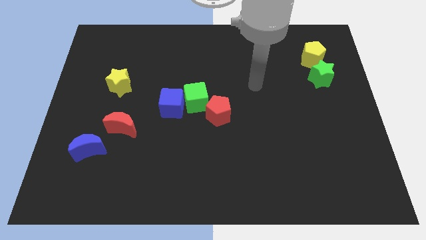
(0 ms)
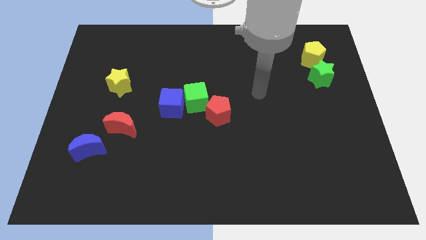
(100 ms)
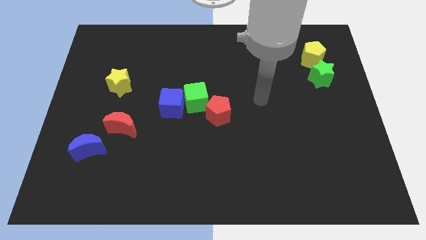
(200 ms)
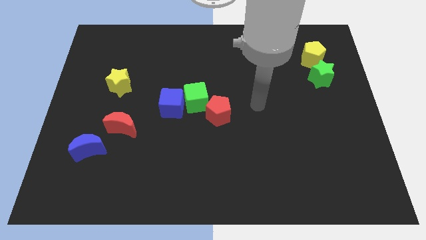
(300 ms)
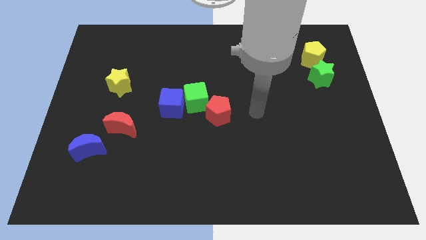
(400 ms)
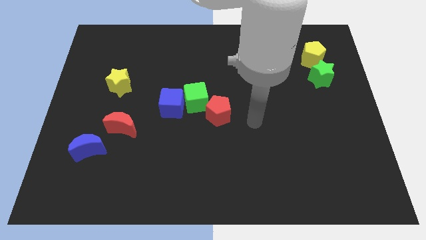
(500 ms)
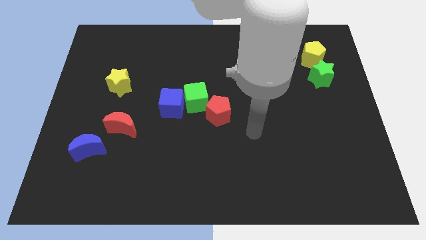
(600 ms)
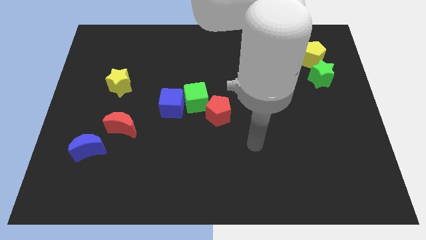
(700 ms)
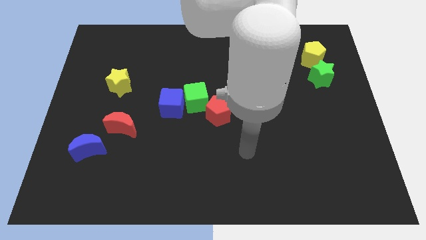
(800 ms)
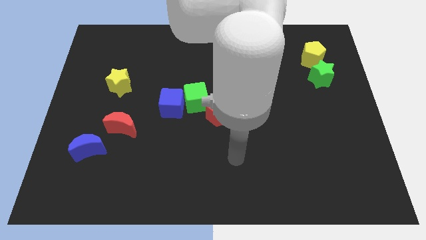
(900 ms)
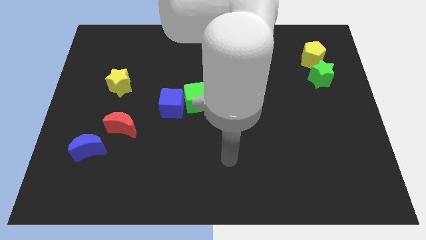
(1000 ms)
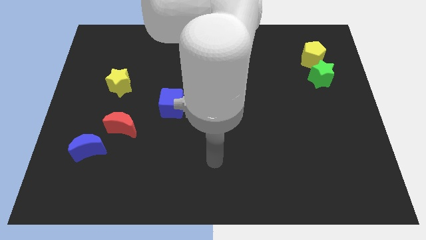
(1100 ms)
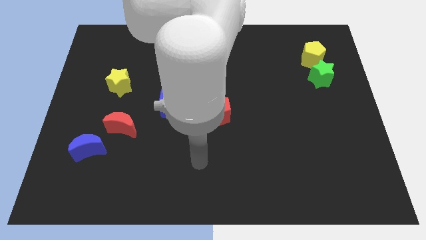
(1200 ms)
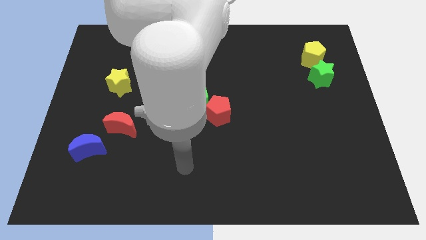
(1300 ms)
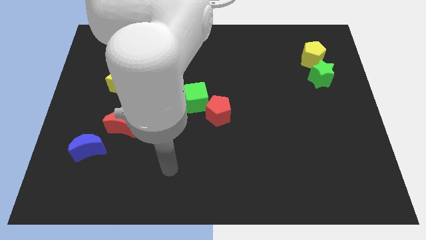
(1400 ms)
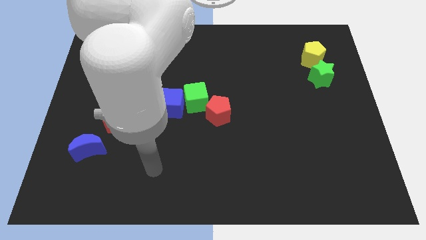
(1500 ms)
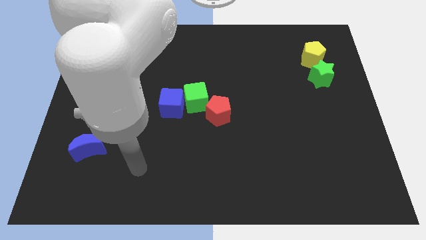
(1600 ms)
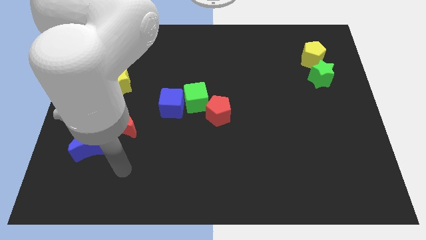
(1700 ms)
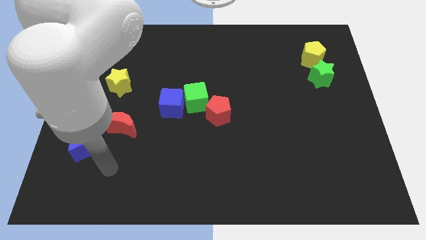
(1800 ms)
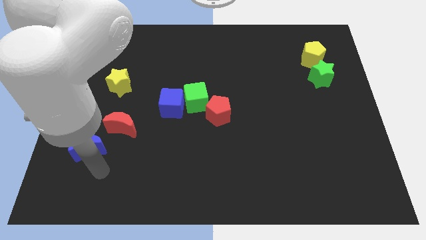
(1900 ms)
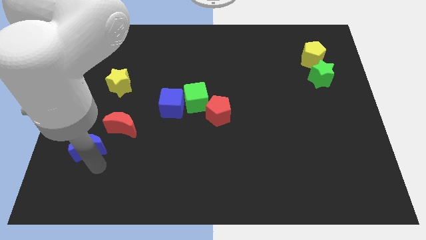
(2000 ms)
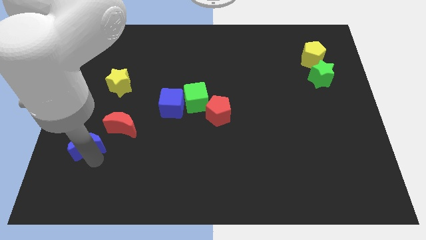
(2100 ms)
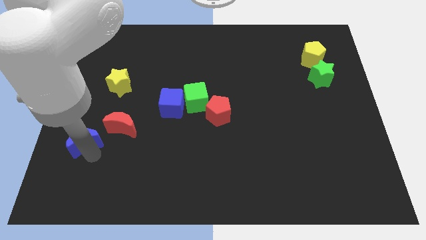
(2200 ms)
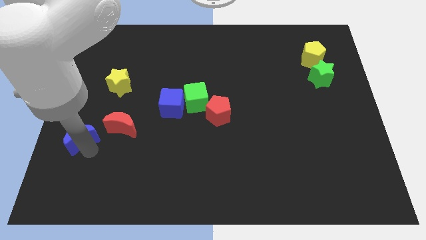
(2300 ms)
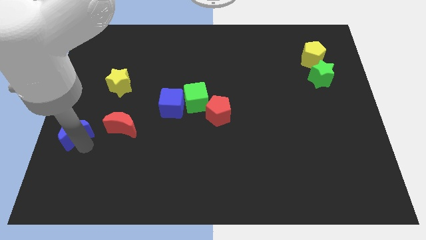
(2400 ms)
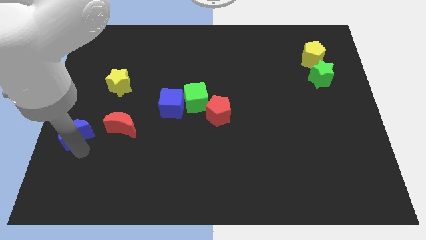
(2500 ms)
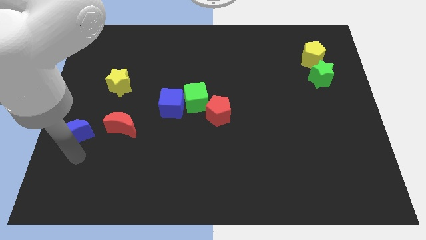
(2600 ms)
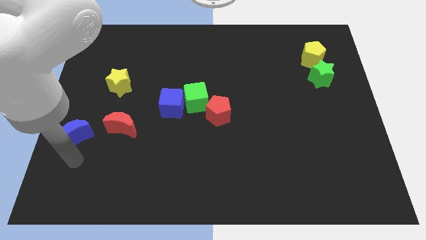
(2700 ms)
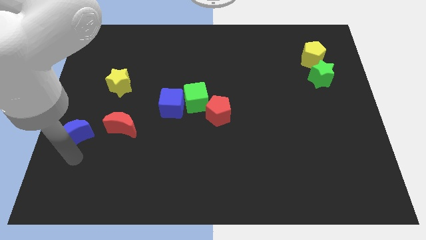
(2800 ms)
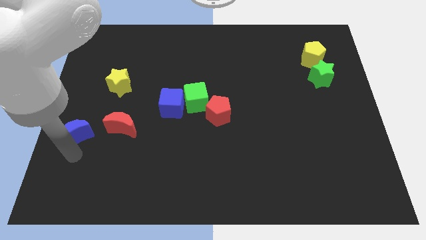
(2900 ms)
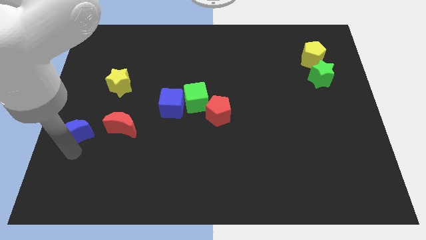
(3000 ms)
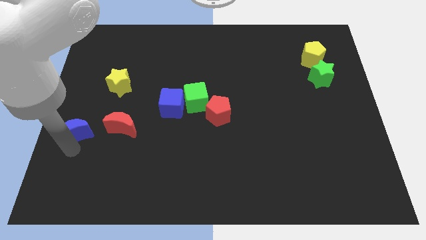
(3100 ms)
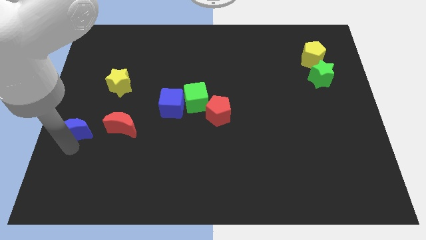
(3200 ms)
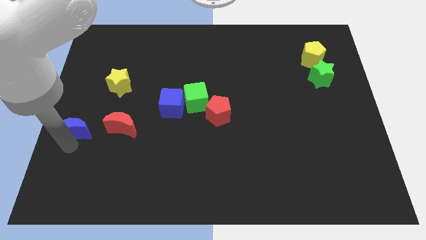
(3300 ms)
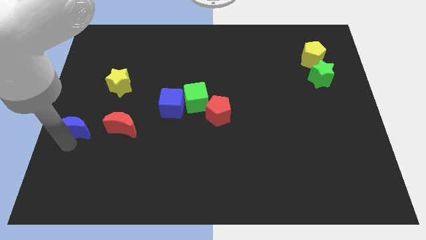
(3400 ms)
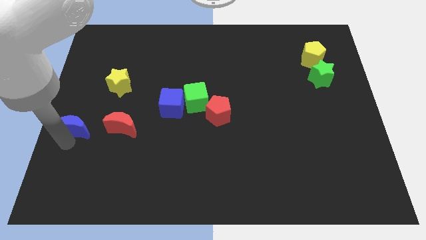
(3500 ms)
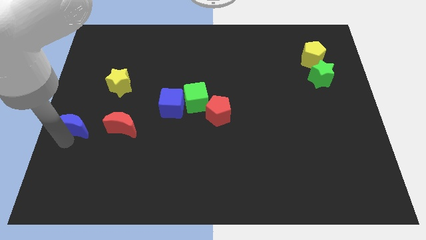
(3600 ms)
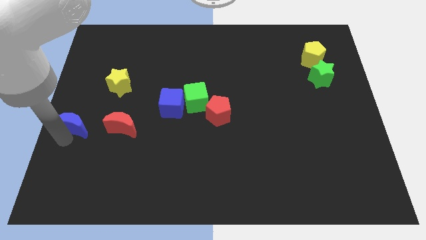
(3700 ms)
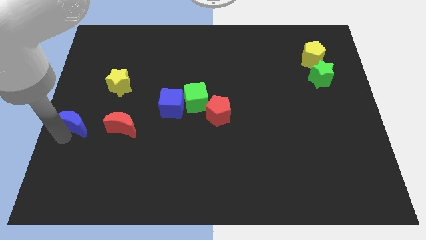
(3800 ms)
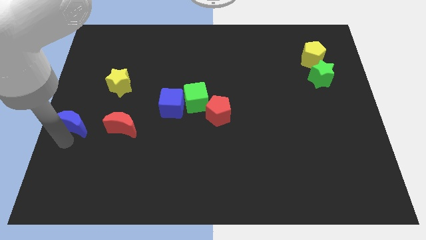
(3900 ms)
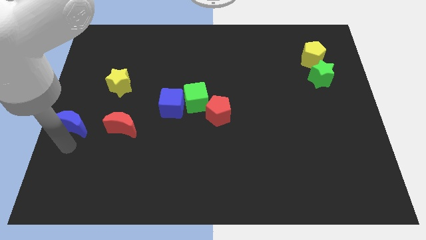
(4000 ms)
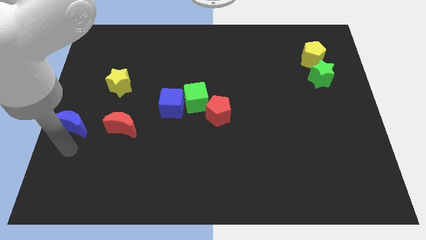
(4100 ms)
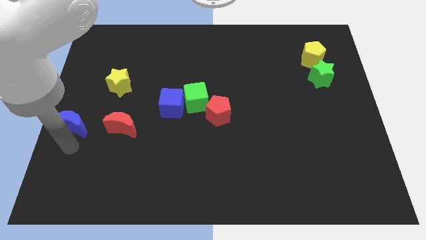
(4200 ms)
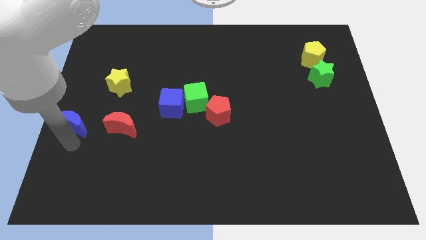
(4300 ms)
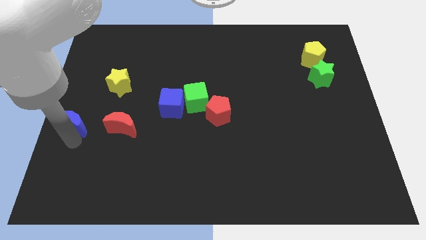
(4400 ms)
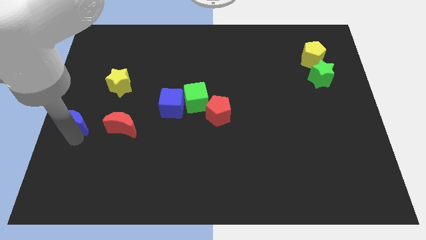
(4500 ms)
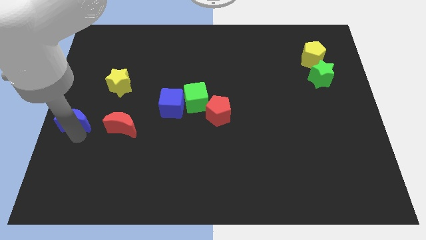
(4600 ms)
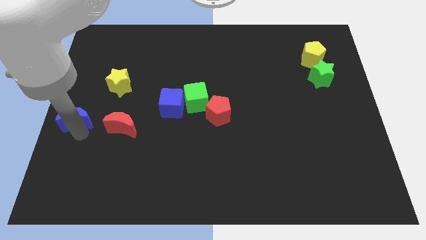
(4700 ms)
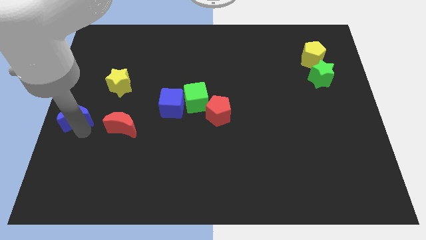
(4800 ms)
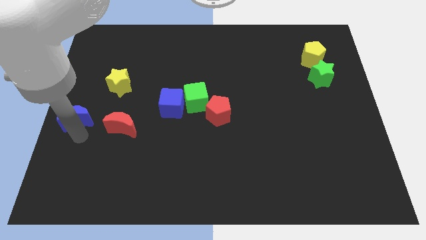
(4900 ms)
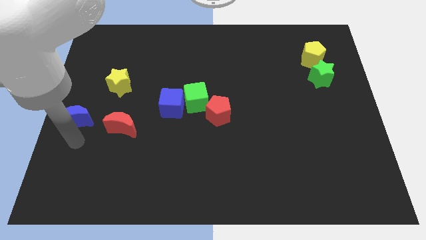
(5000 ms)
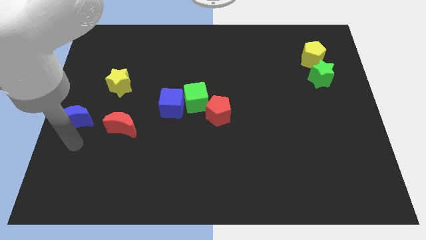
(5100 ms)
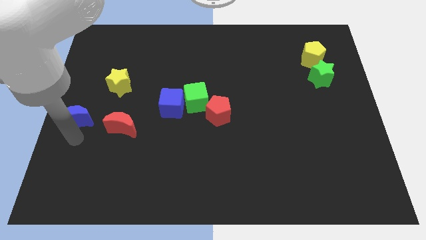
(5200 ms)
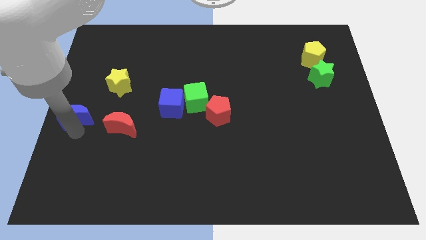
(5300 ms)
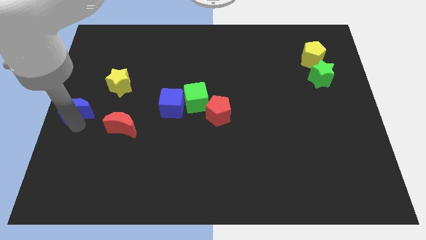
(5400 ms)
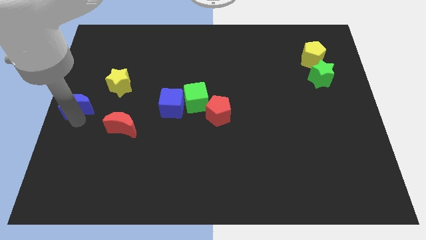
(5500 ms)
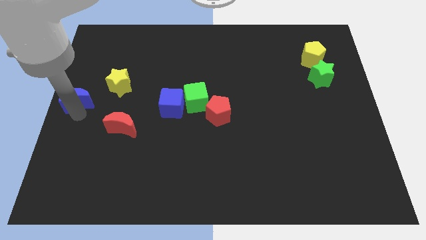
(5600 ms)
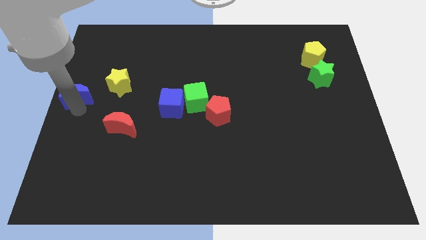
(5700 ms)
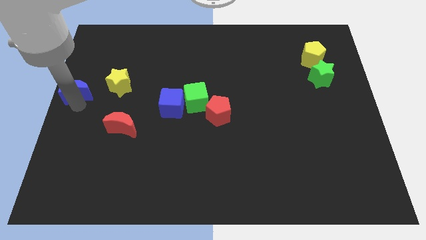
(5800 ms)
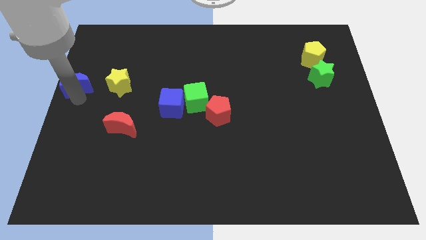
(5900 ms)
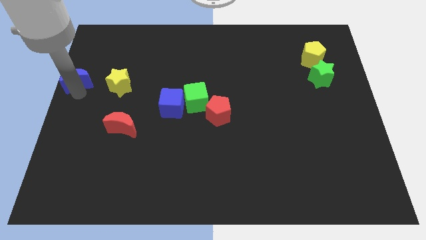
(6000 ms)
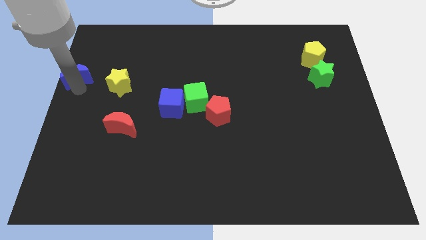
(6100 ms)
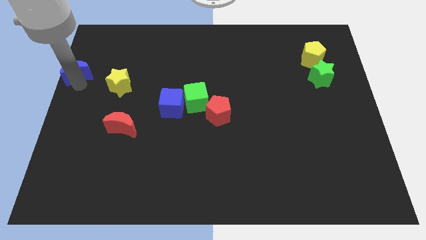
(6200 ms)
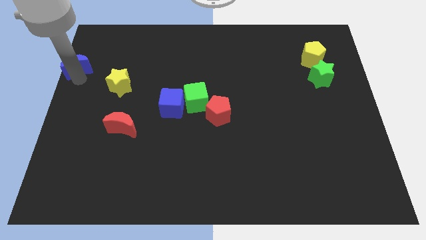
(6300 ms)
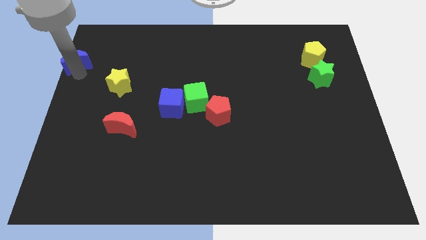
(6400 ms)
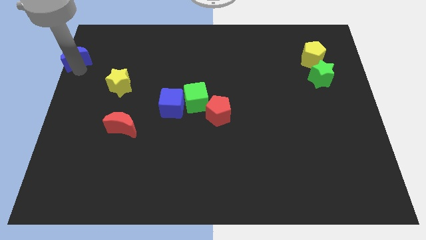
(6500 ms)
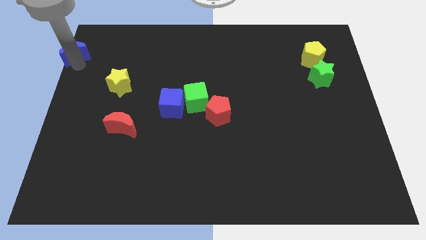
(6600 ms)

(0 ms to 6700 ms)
move the blue moon to the top left of the board

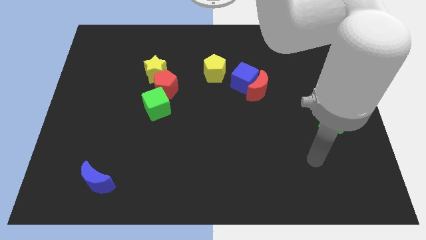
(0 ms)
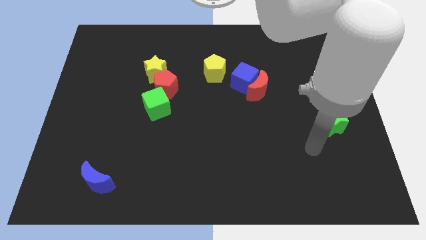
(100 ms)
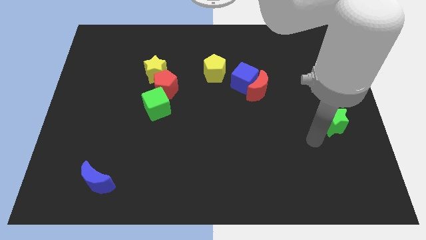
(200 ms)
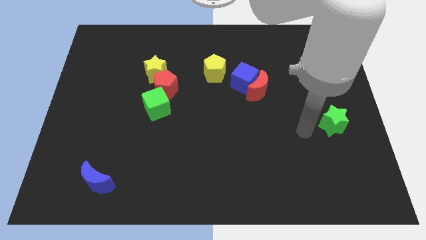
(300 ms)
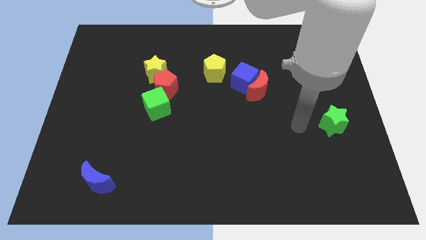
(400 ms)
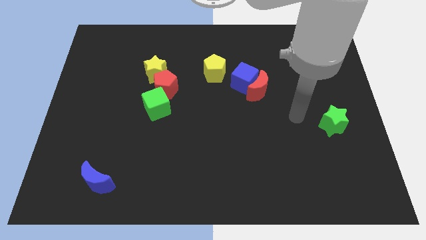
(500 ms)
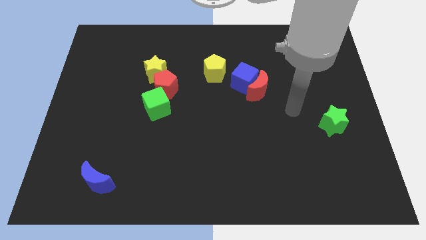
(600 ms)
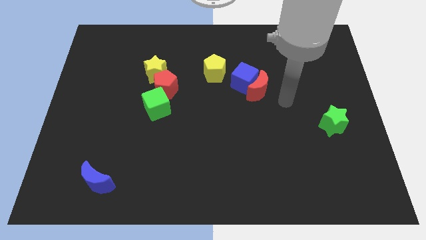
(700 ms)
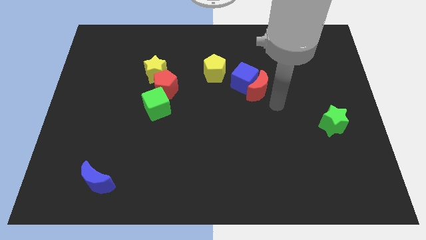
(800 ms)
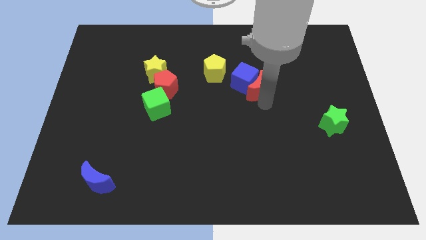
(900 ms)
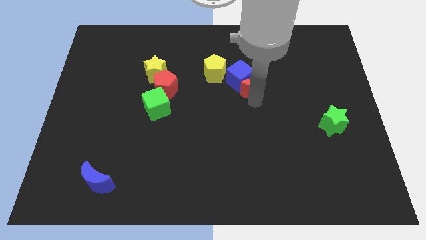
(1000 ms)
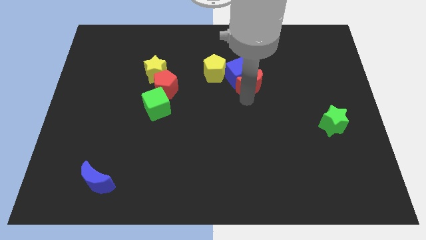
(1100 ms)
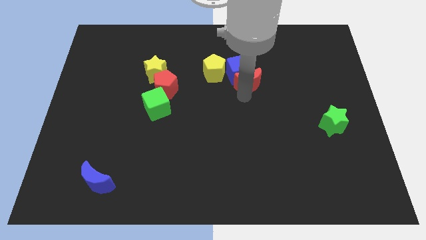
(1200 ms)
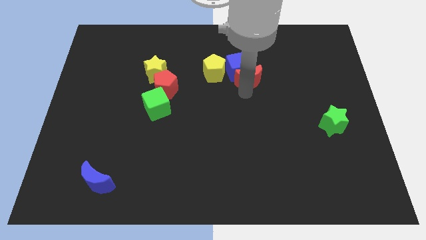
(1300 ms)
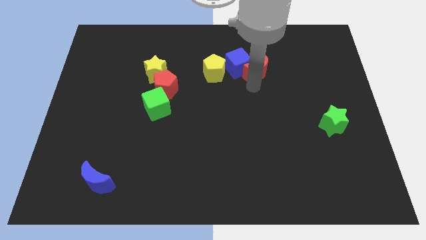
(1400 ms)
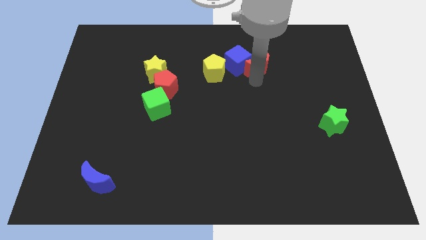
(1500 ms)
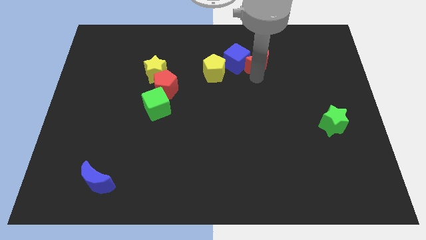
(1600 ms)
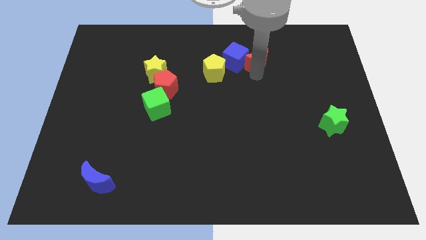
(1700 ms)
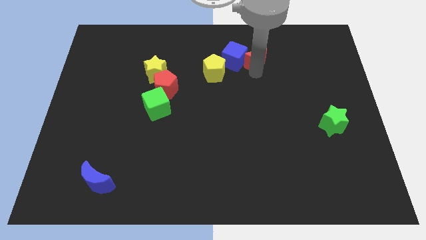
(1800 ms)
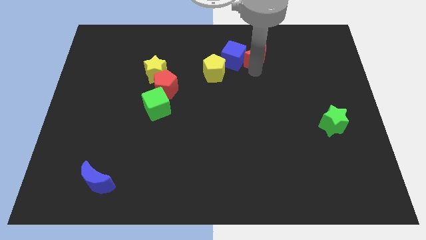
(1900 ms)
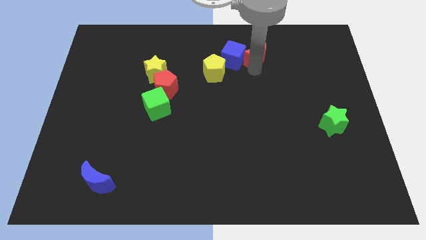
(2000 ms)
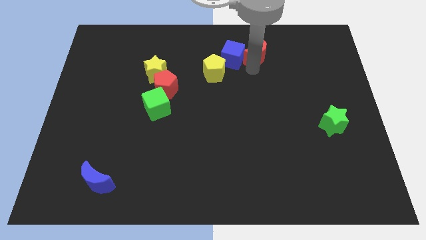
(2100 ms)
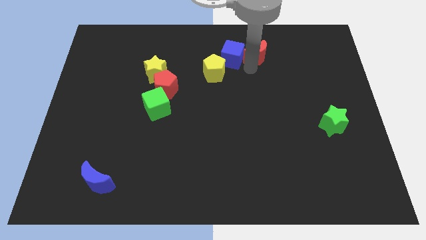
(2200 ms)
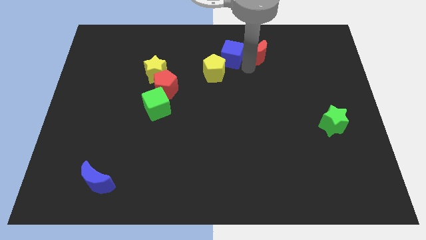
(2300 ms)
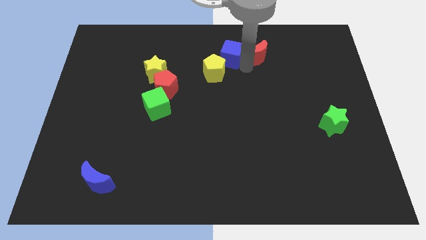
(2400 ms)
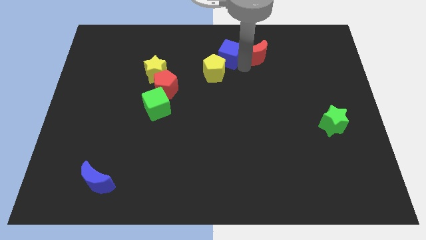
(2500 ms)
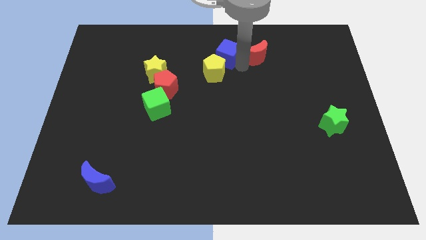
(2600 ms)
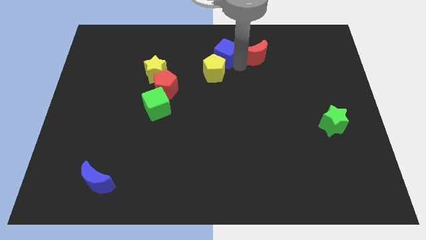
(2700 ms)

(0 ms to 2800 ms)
push the blue cube to the towards your base
